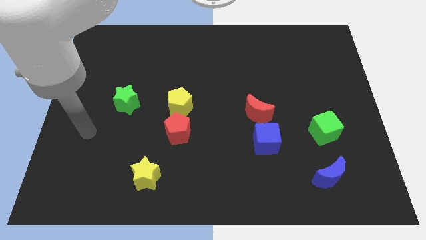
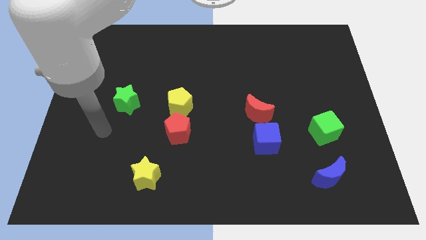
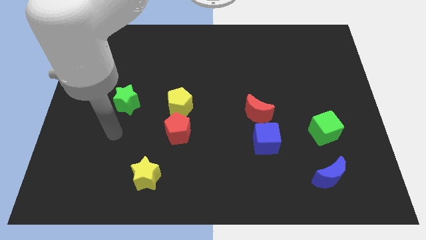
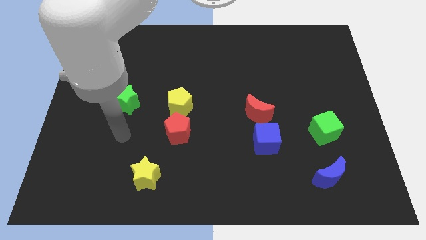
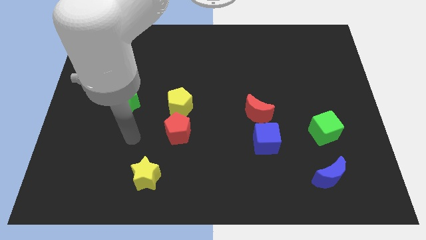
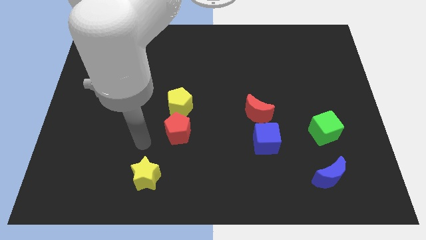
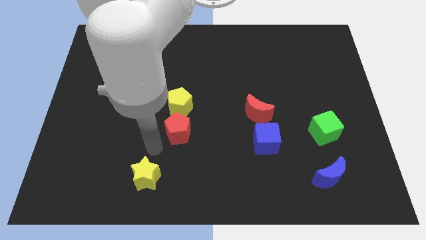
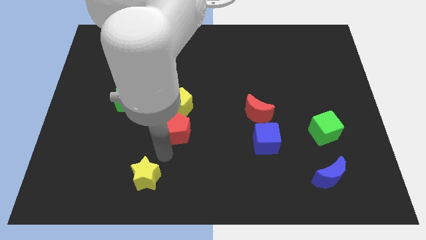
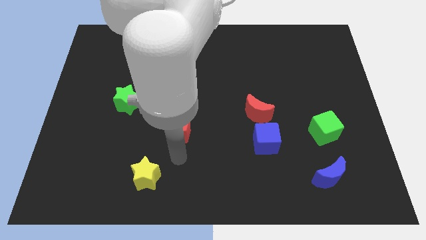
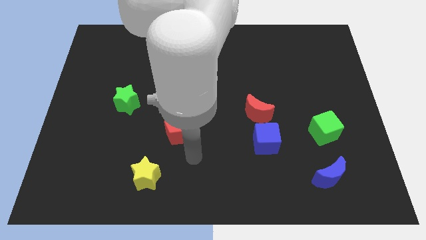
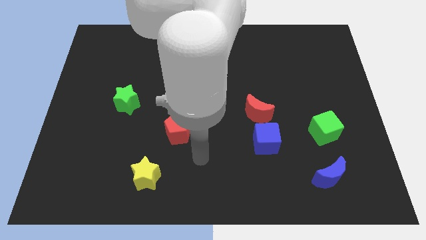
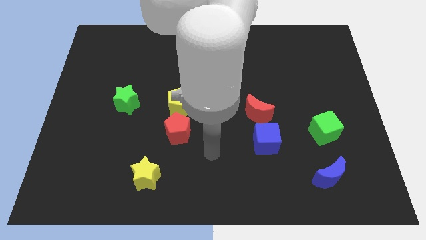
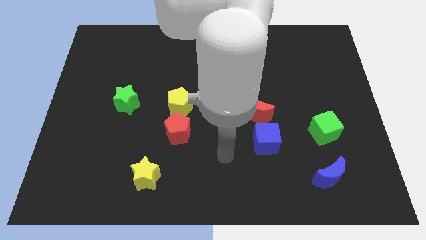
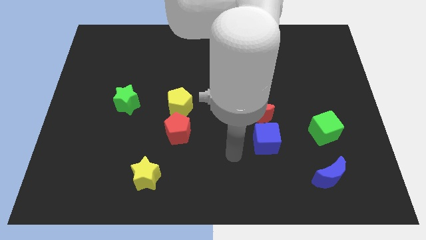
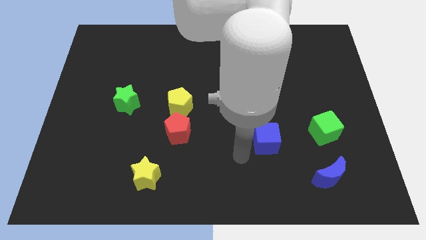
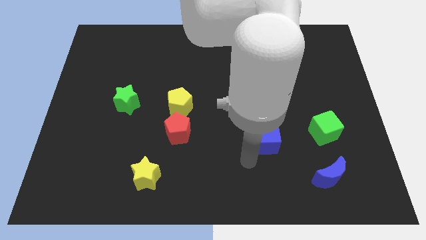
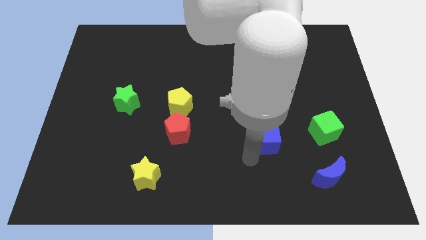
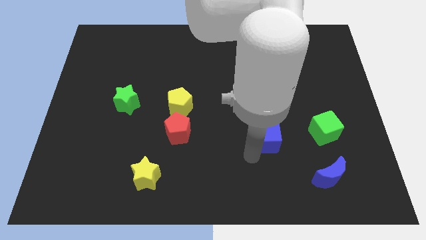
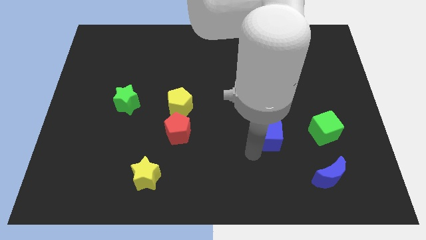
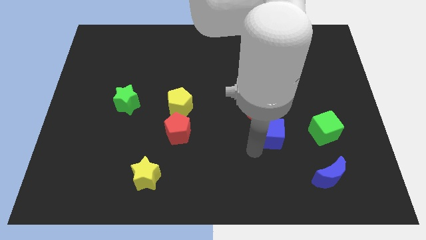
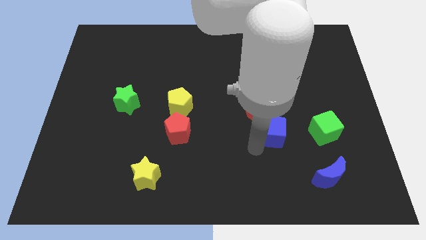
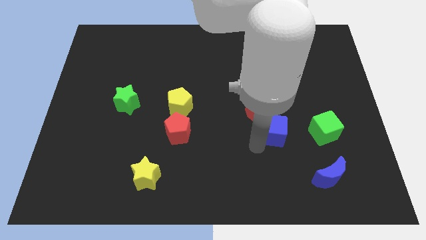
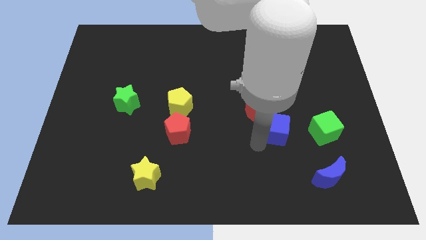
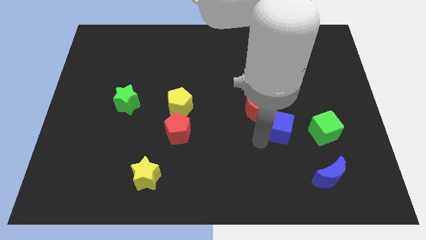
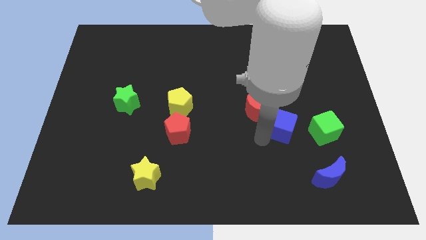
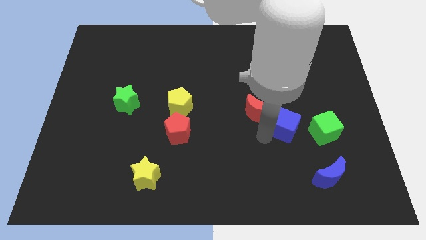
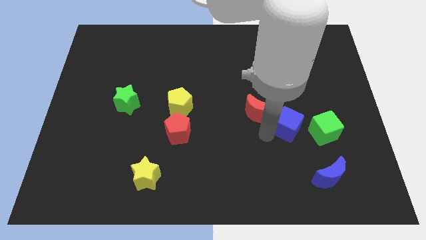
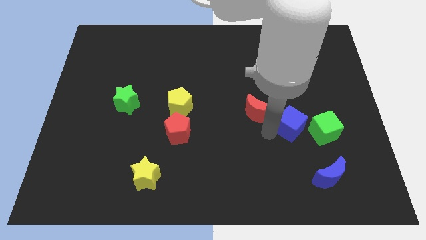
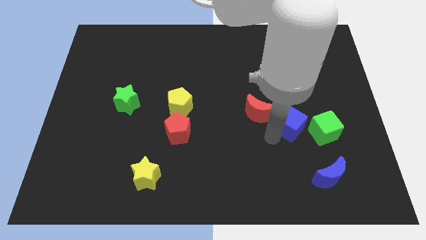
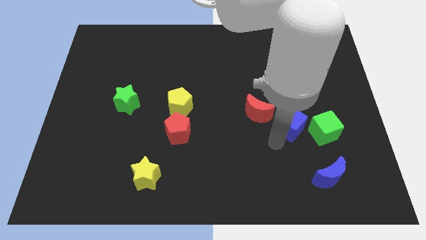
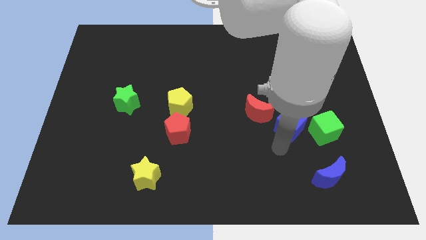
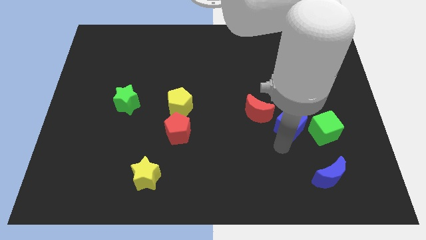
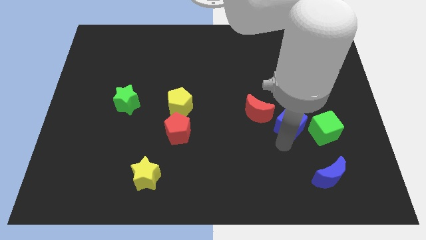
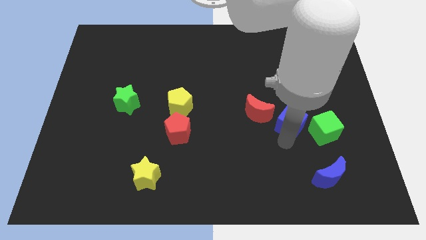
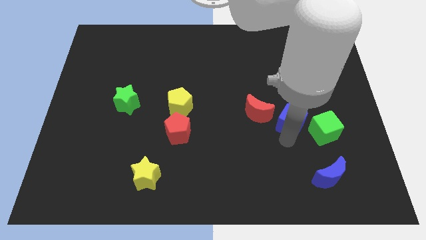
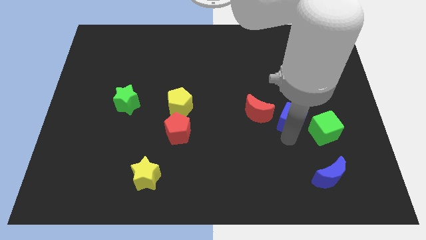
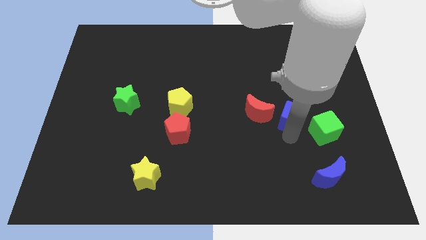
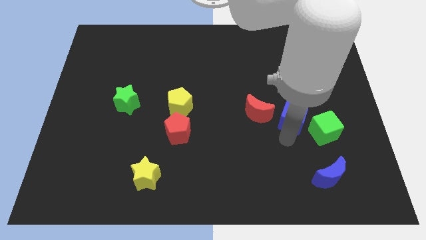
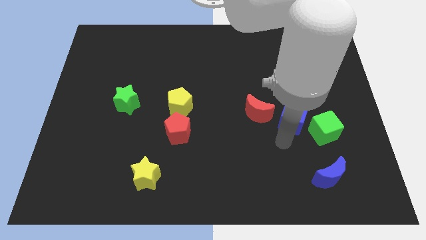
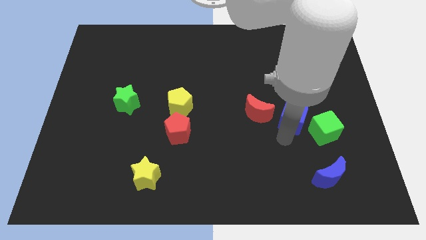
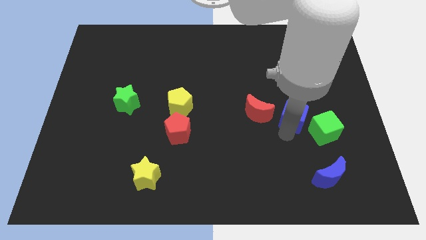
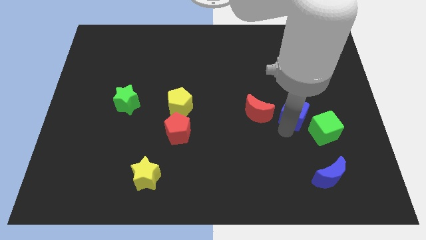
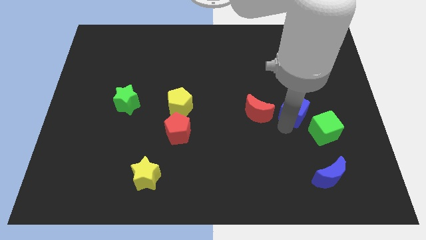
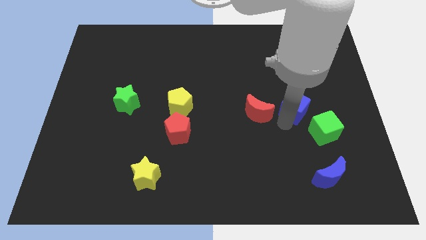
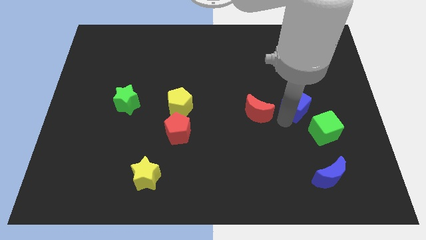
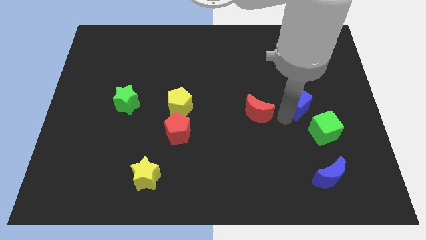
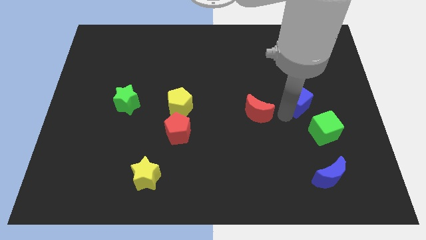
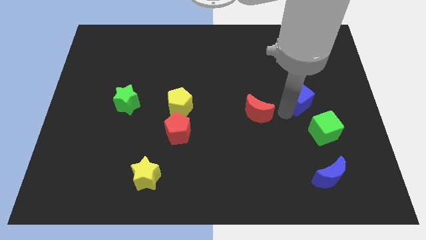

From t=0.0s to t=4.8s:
move the blue cube to the top of the green cube

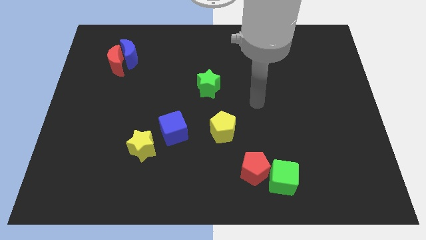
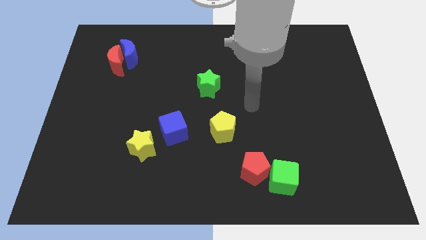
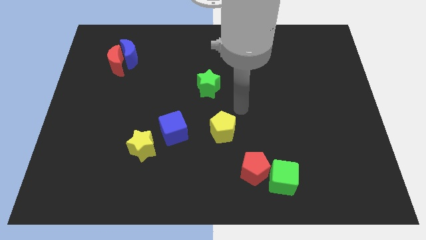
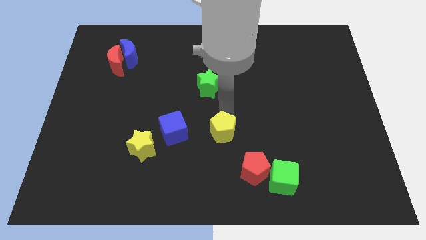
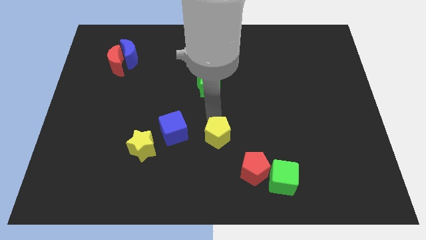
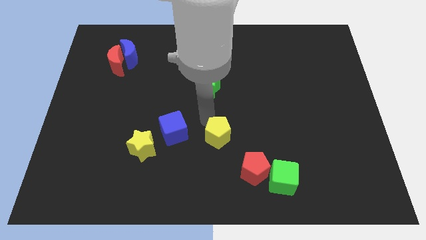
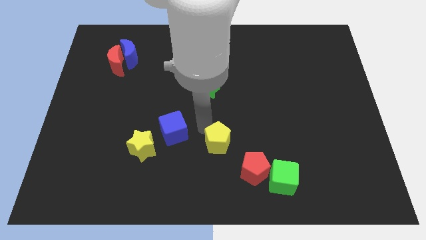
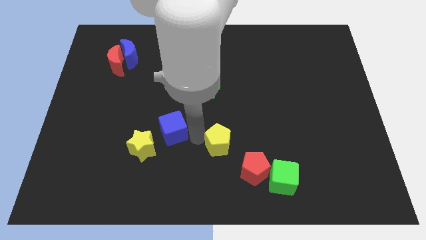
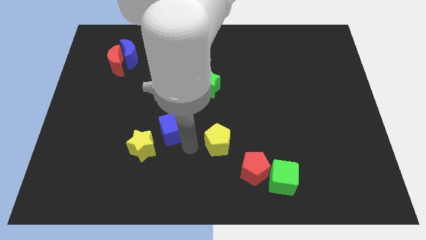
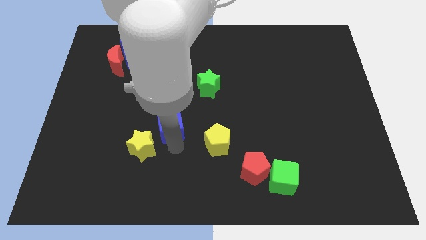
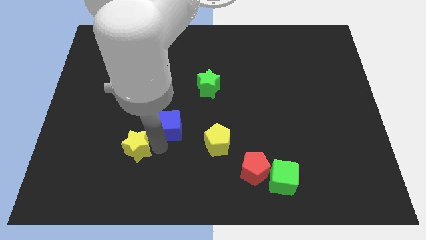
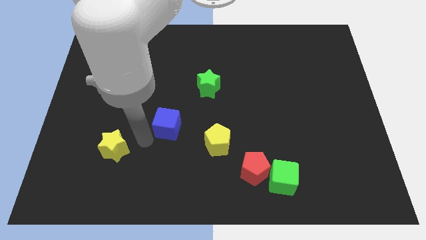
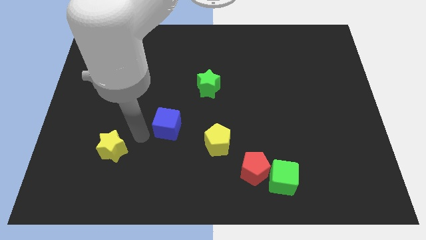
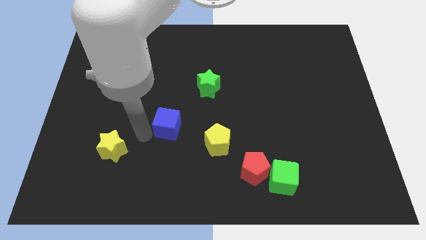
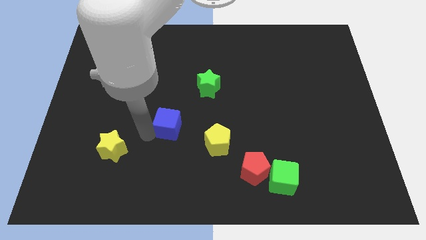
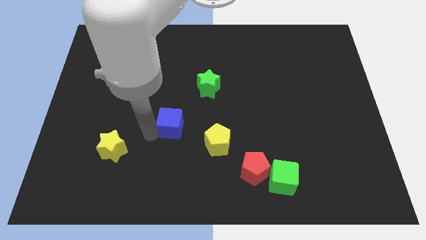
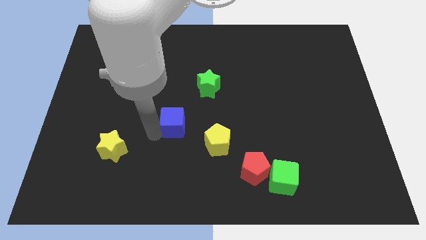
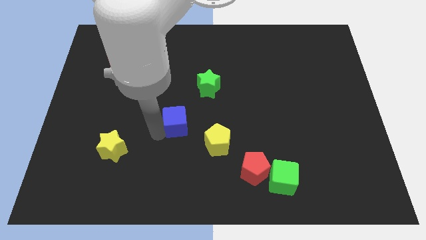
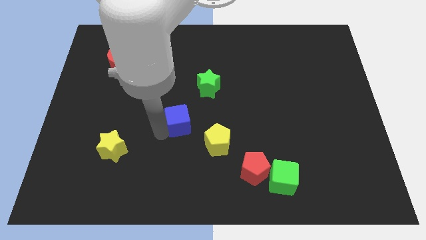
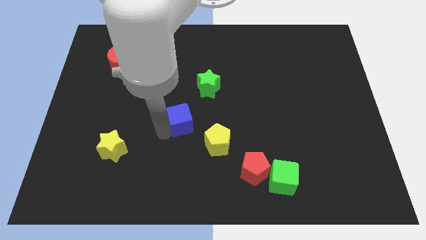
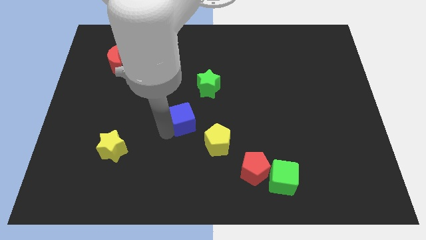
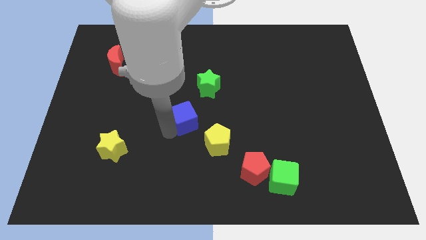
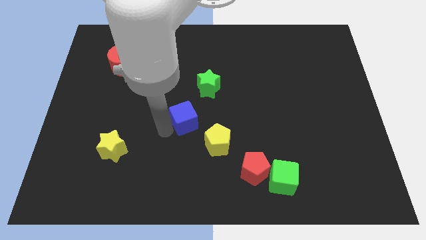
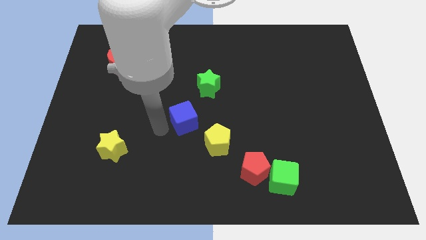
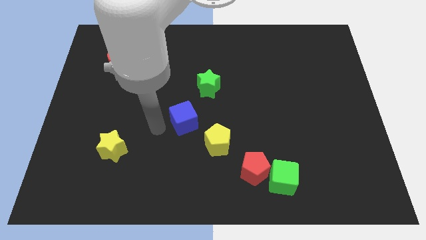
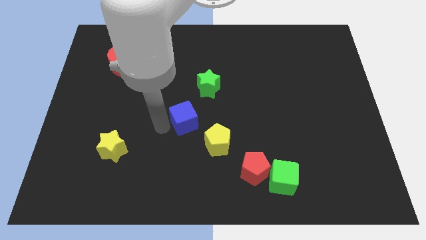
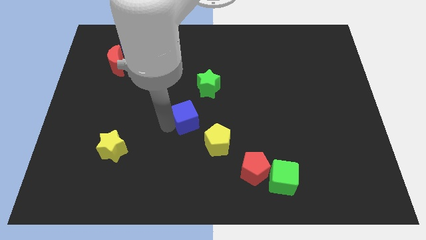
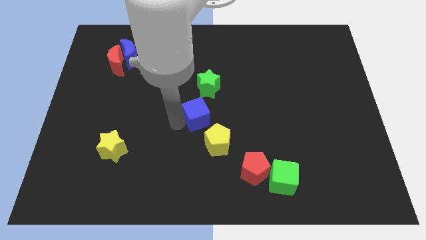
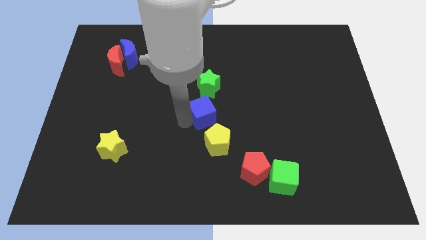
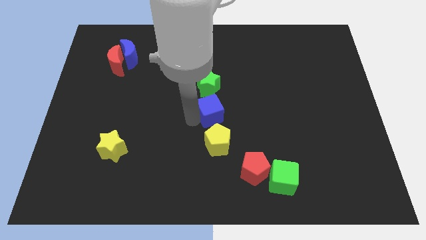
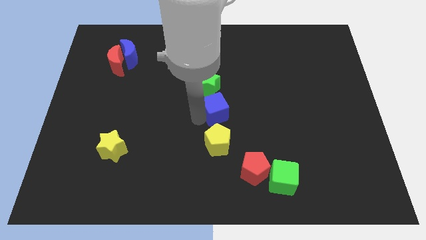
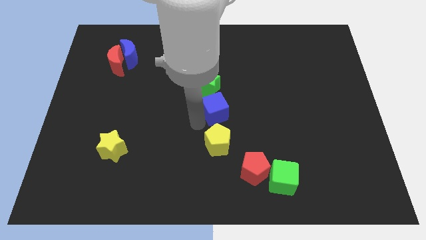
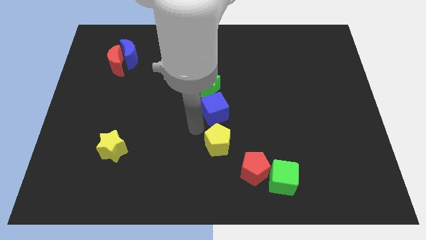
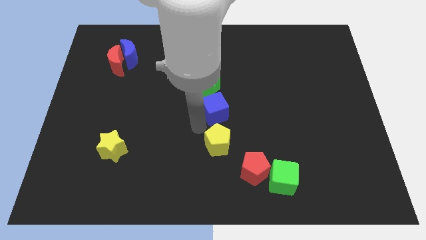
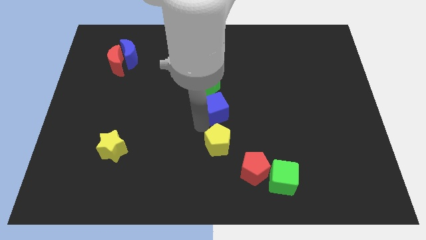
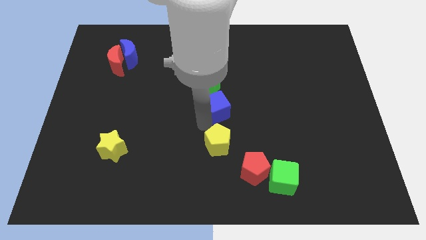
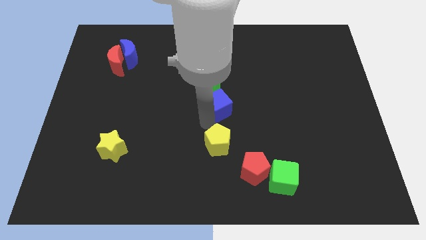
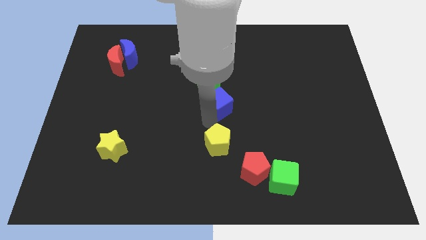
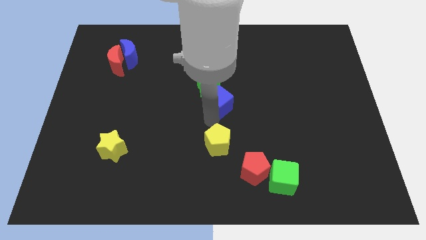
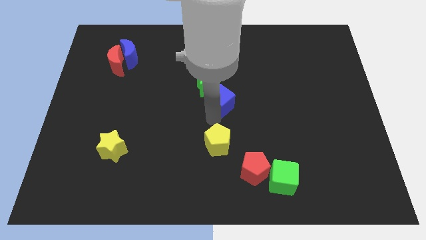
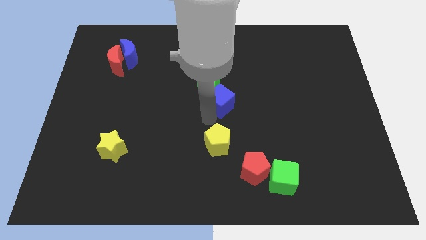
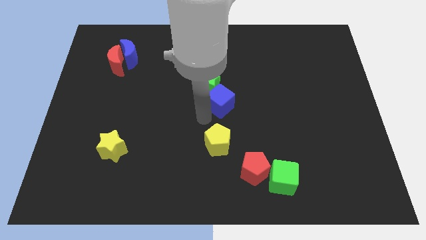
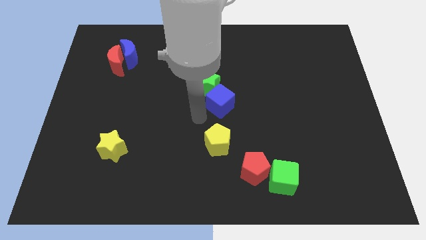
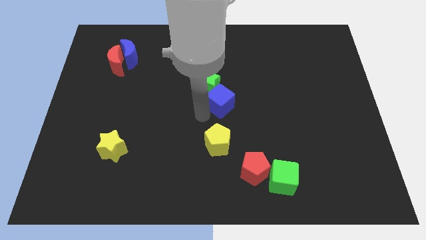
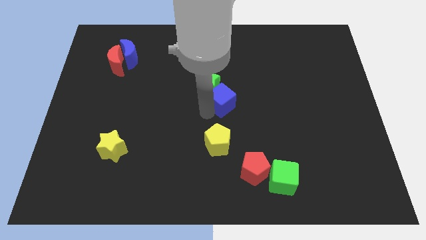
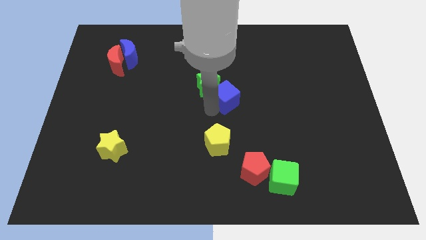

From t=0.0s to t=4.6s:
put the blue cube to the right side of the green star
